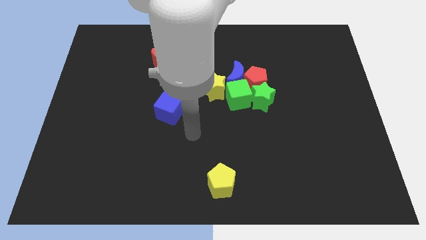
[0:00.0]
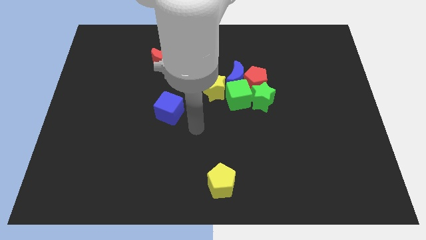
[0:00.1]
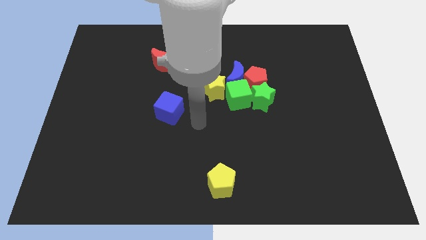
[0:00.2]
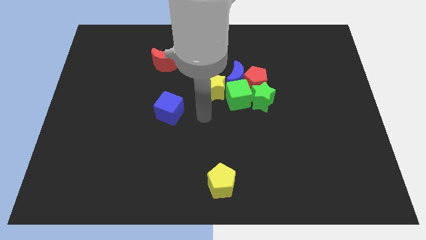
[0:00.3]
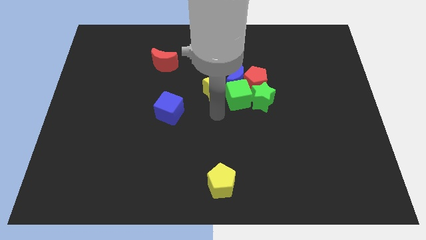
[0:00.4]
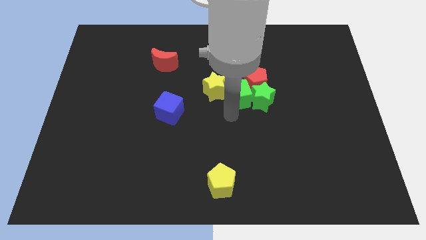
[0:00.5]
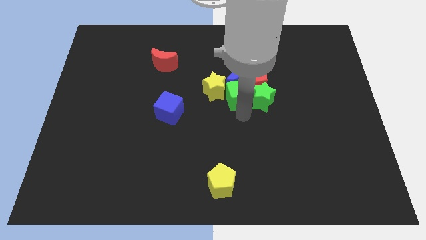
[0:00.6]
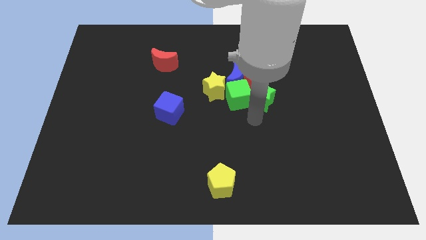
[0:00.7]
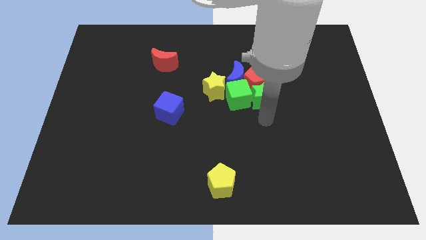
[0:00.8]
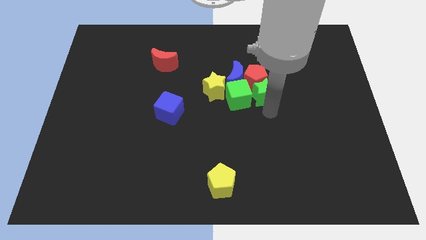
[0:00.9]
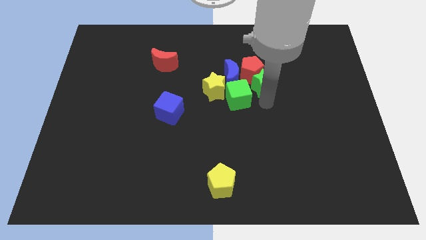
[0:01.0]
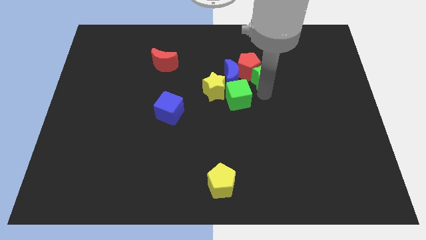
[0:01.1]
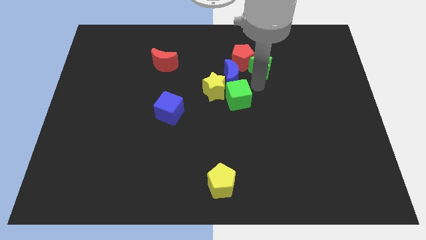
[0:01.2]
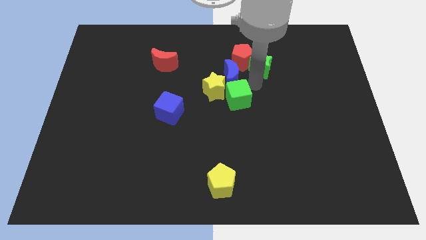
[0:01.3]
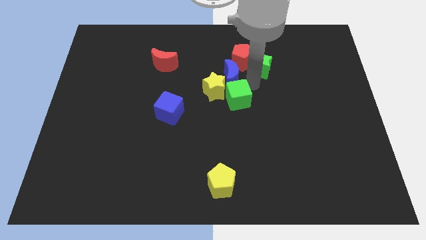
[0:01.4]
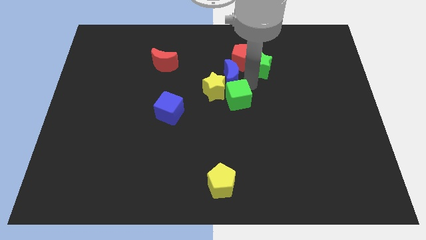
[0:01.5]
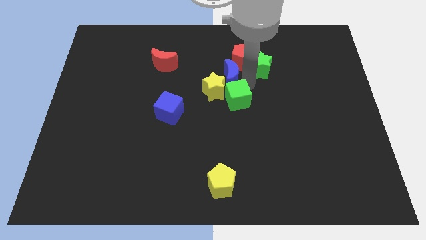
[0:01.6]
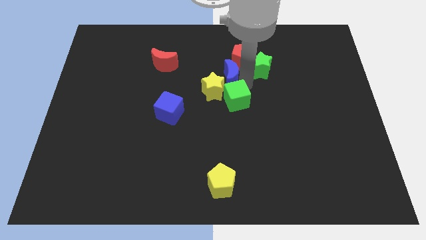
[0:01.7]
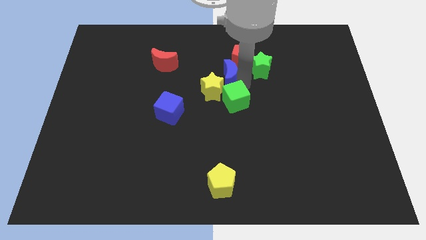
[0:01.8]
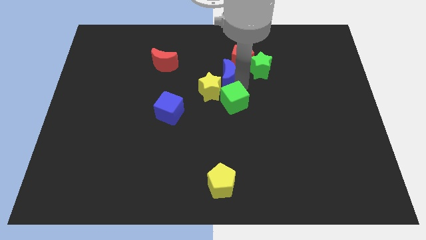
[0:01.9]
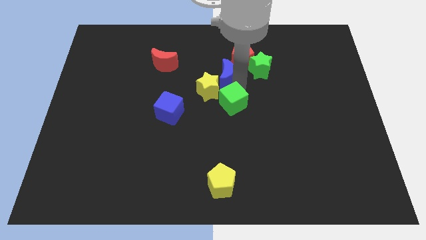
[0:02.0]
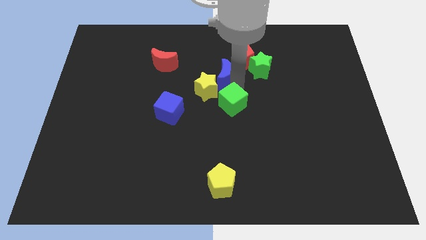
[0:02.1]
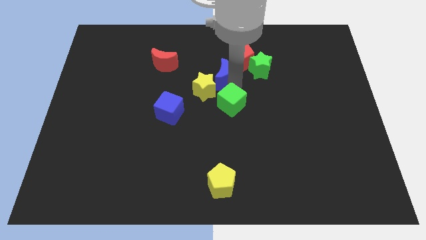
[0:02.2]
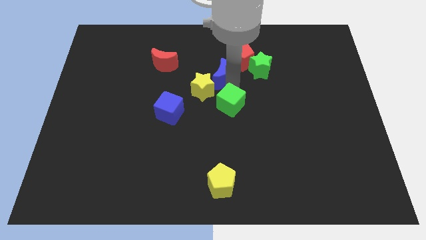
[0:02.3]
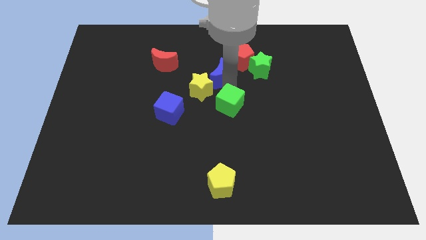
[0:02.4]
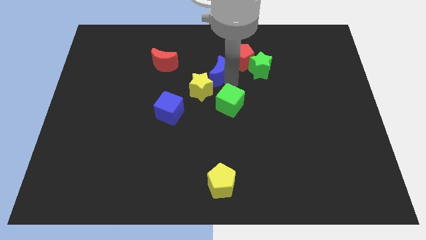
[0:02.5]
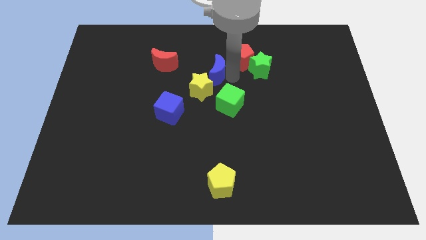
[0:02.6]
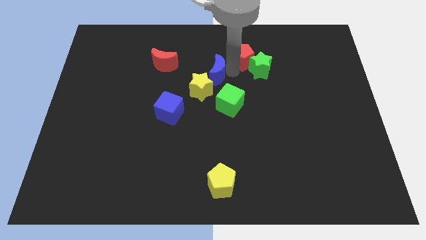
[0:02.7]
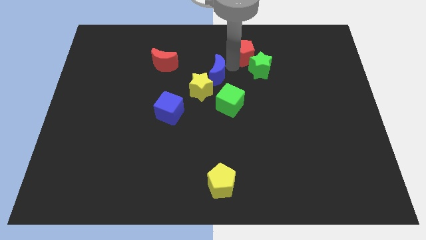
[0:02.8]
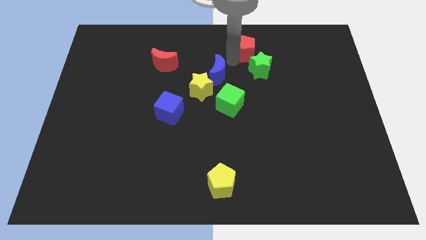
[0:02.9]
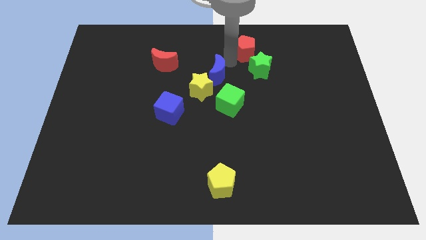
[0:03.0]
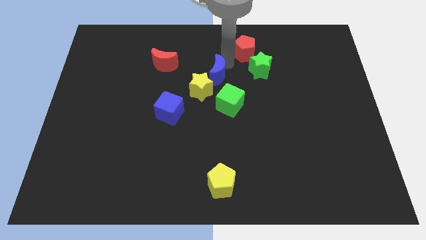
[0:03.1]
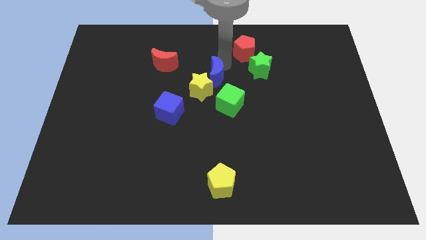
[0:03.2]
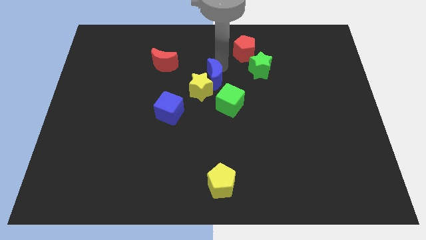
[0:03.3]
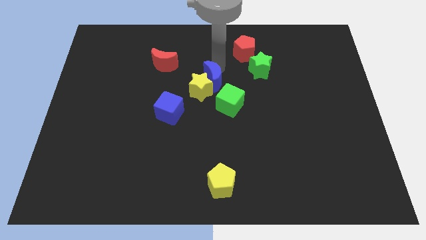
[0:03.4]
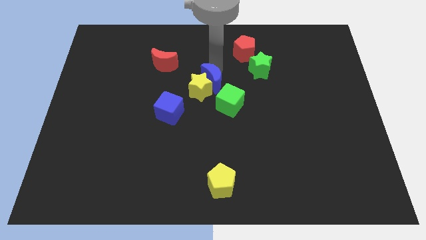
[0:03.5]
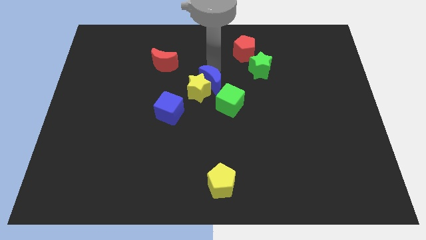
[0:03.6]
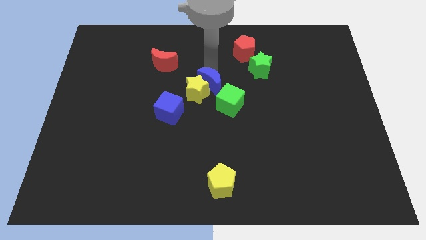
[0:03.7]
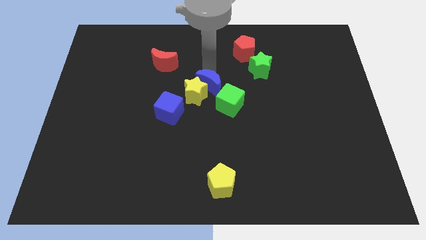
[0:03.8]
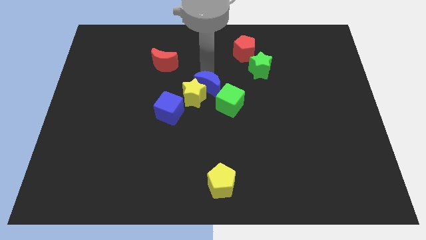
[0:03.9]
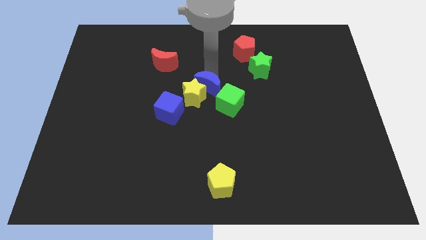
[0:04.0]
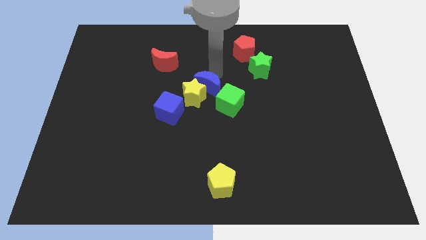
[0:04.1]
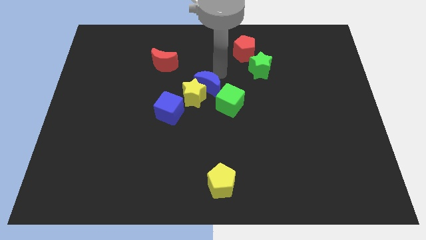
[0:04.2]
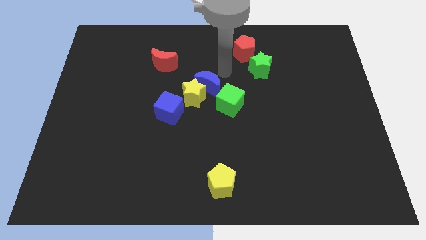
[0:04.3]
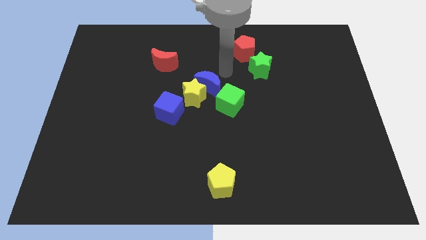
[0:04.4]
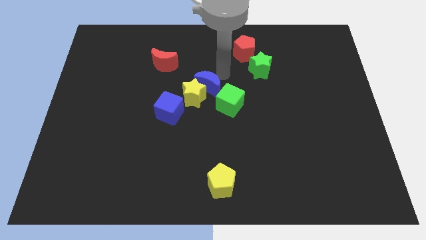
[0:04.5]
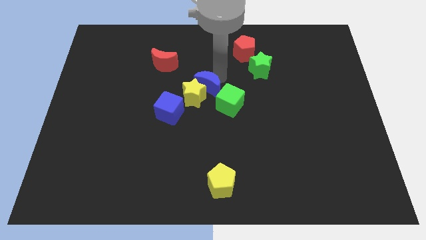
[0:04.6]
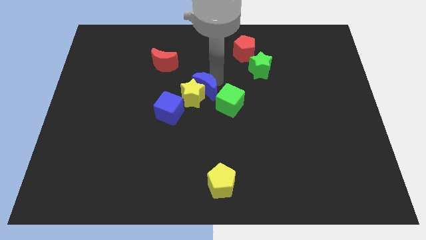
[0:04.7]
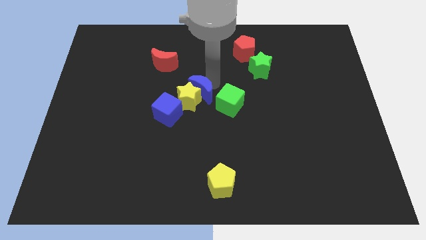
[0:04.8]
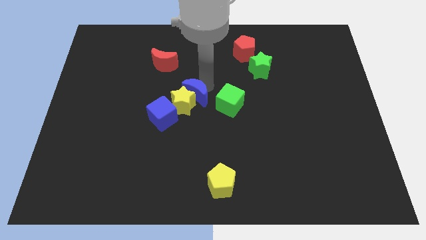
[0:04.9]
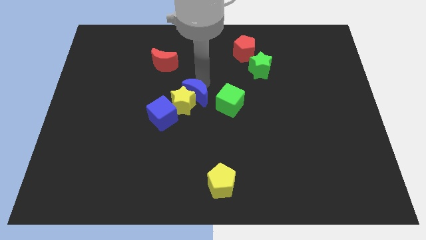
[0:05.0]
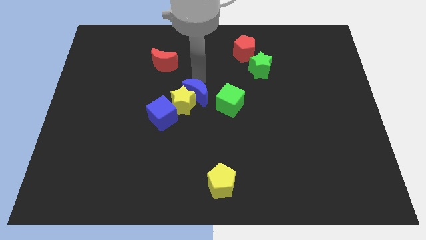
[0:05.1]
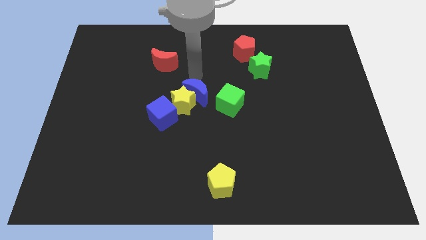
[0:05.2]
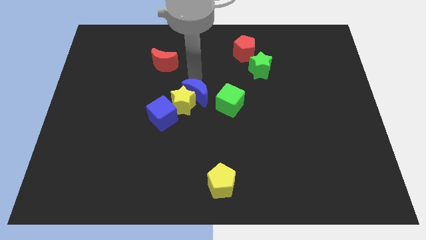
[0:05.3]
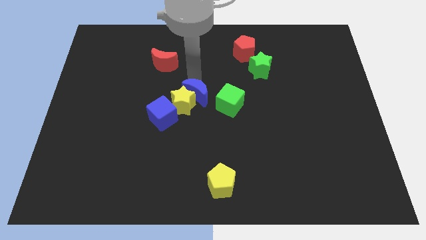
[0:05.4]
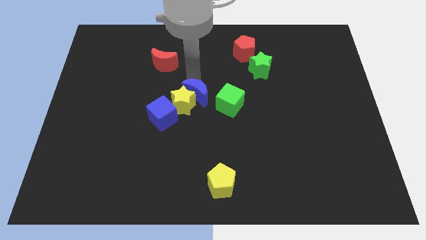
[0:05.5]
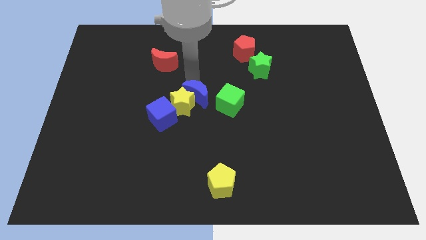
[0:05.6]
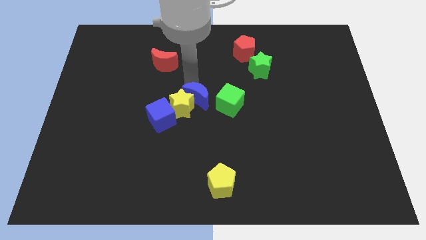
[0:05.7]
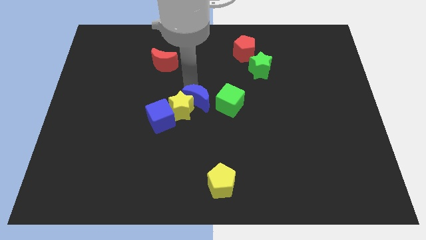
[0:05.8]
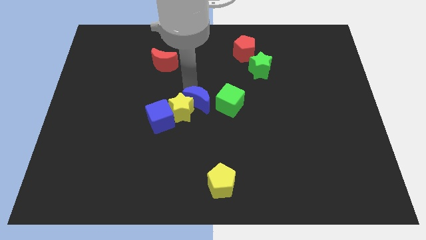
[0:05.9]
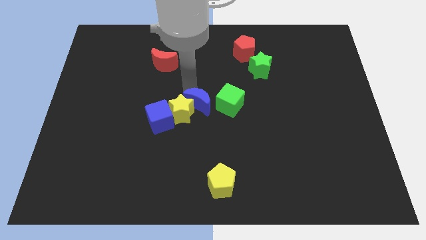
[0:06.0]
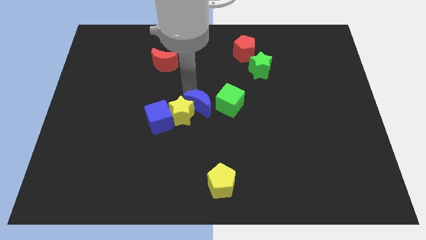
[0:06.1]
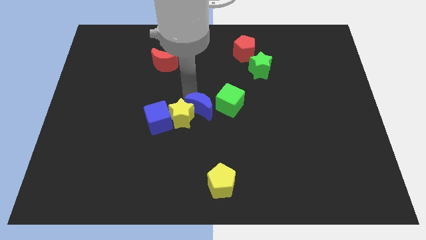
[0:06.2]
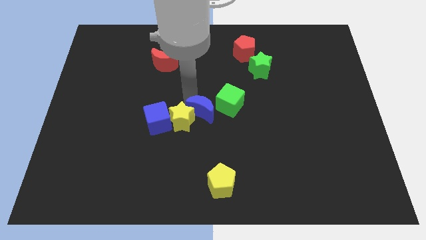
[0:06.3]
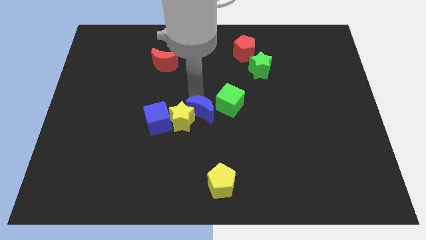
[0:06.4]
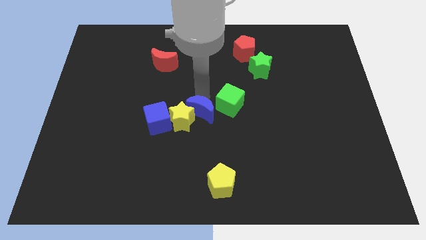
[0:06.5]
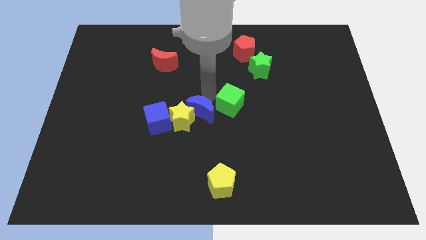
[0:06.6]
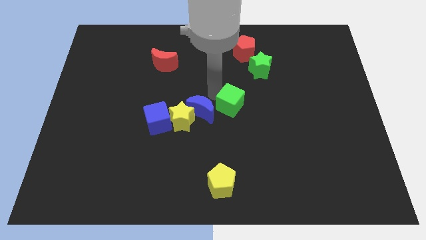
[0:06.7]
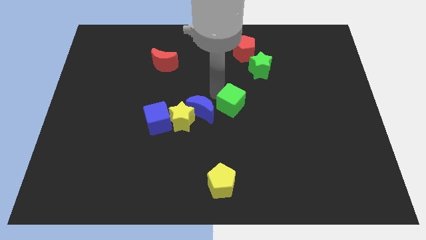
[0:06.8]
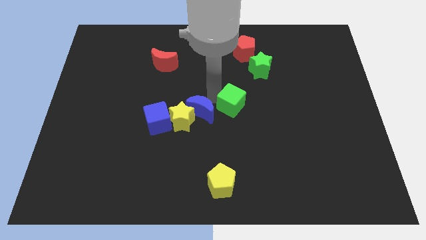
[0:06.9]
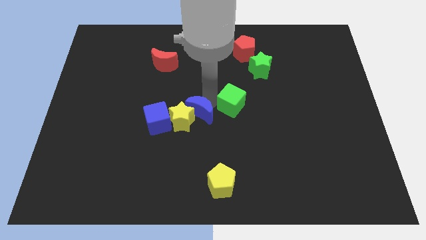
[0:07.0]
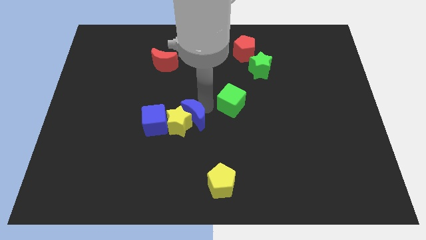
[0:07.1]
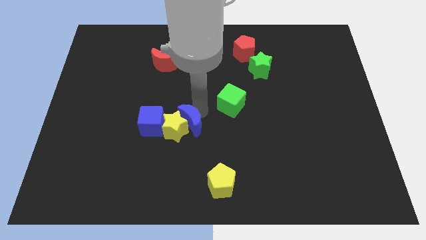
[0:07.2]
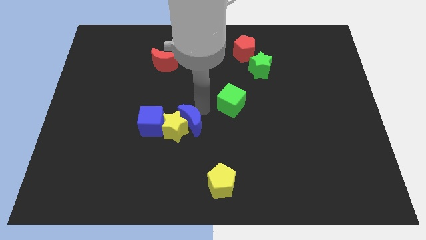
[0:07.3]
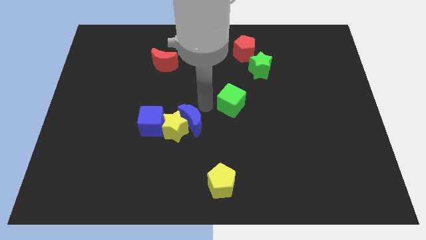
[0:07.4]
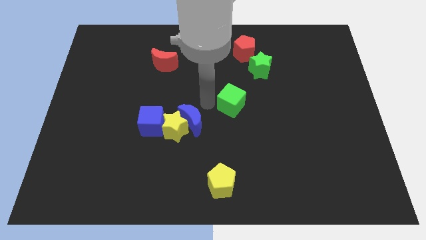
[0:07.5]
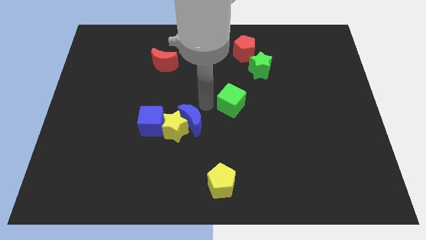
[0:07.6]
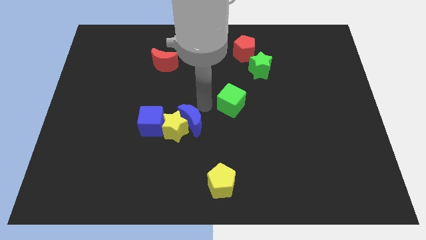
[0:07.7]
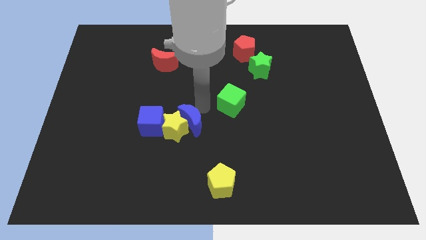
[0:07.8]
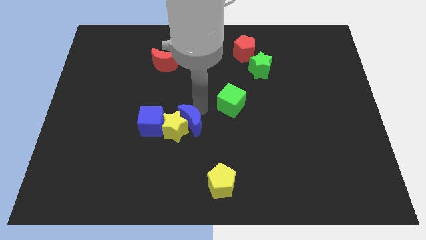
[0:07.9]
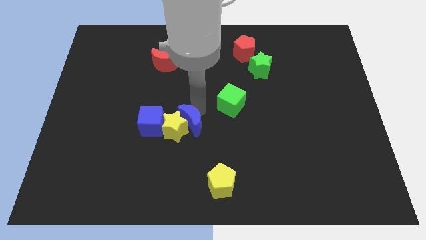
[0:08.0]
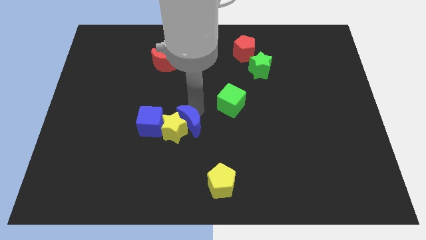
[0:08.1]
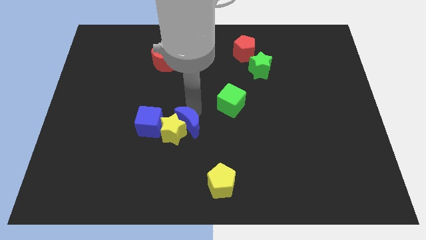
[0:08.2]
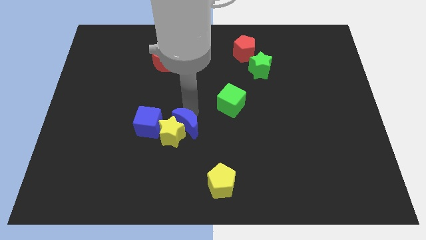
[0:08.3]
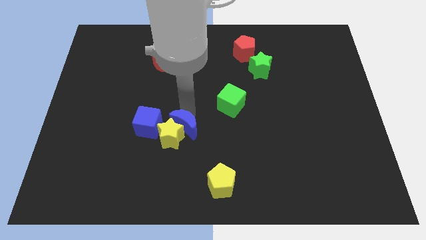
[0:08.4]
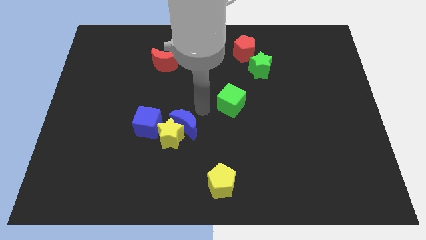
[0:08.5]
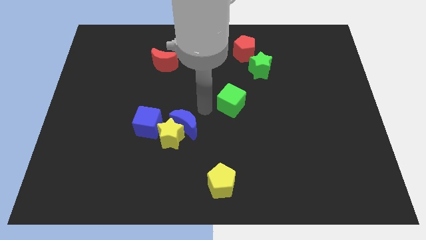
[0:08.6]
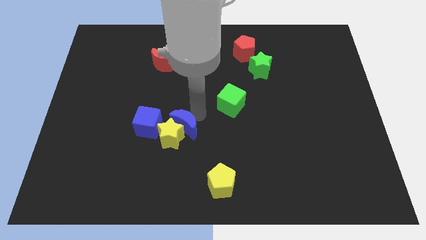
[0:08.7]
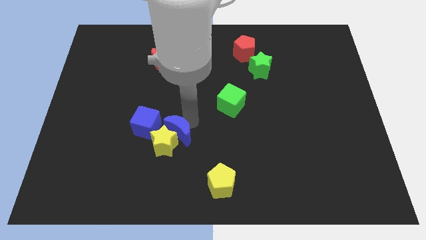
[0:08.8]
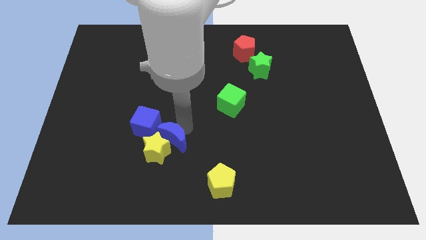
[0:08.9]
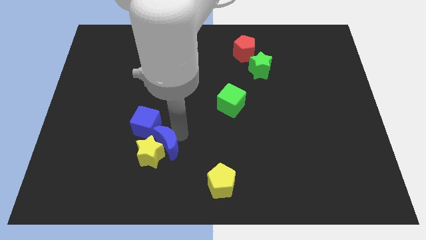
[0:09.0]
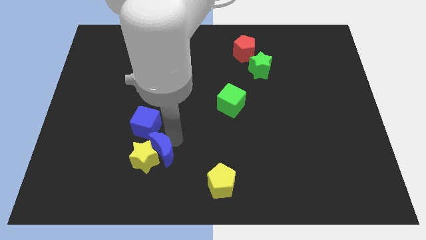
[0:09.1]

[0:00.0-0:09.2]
slide the blue moon below the blue cube
